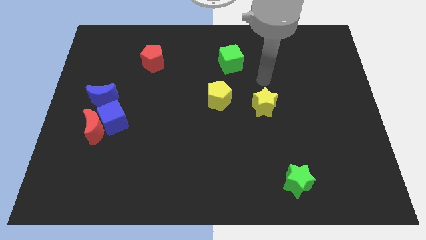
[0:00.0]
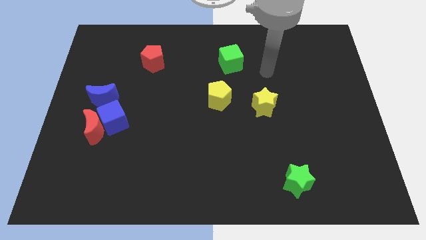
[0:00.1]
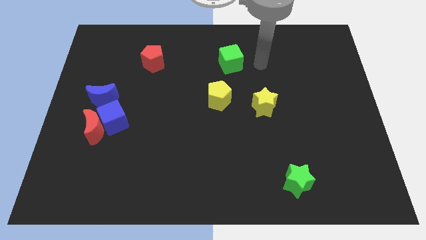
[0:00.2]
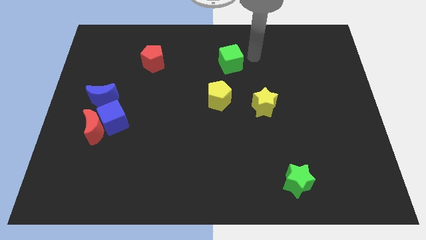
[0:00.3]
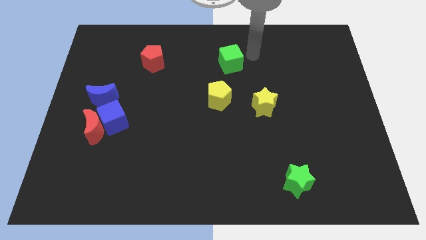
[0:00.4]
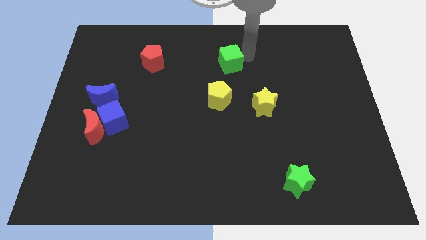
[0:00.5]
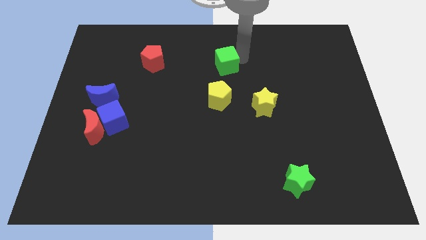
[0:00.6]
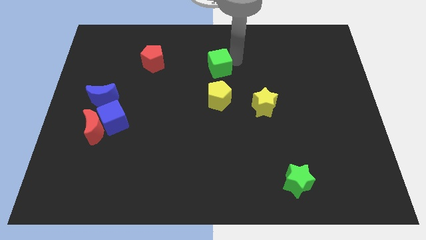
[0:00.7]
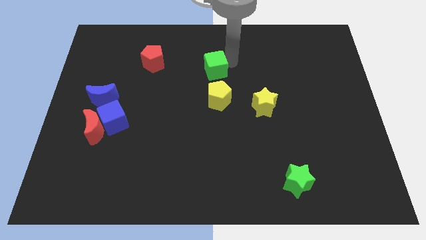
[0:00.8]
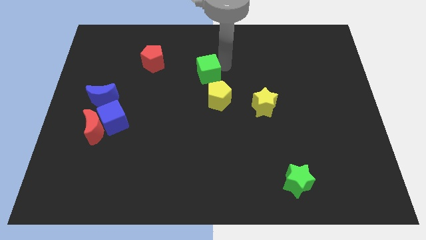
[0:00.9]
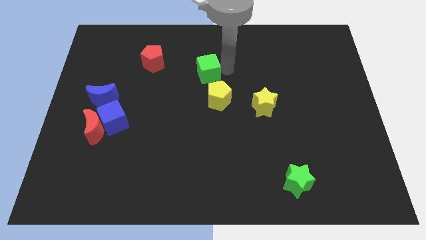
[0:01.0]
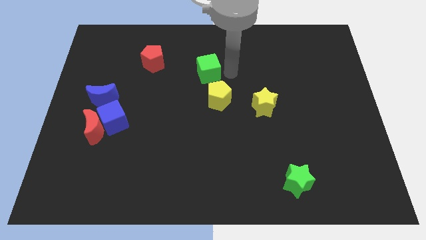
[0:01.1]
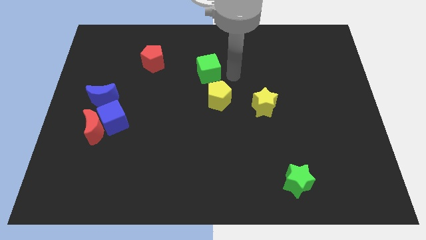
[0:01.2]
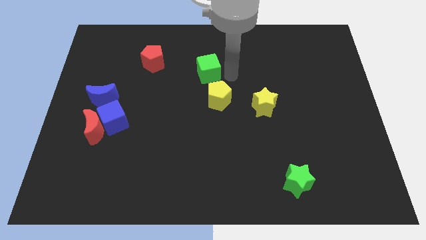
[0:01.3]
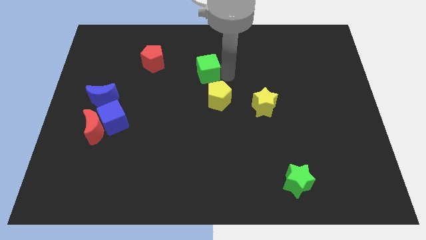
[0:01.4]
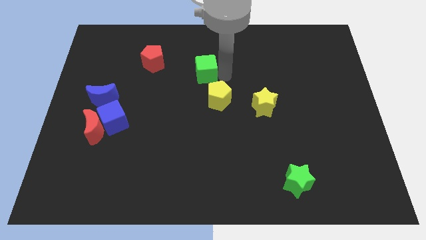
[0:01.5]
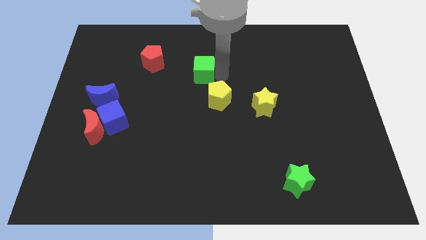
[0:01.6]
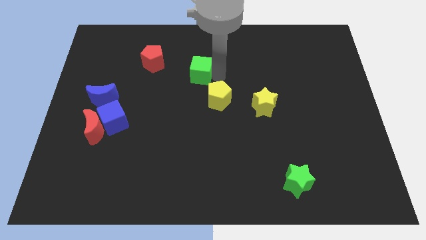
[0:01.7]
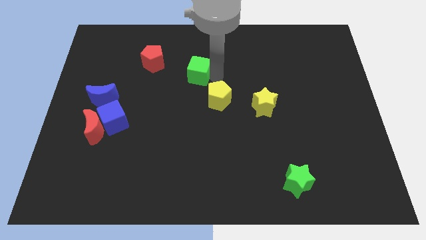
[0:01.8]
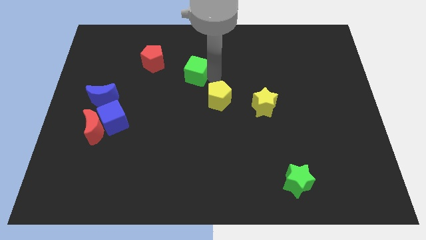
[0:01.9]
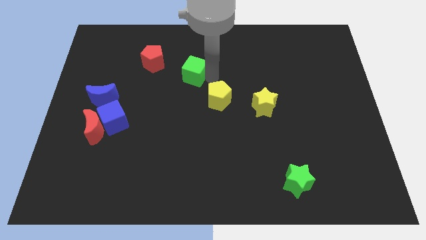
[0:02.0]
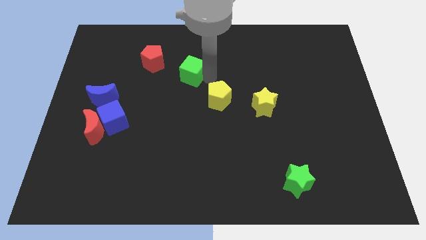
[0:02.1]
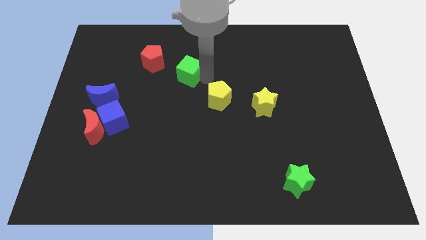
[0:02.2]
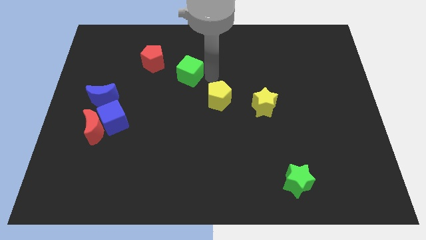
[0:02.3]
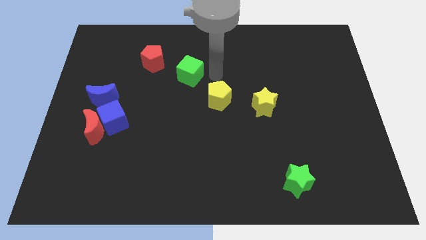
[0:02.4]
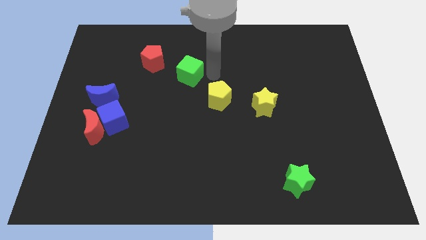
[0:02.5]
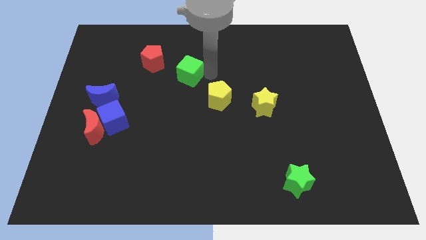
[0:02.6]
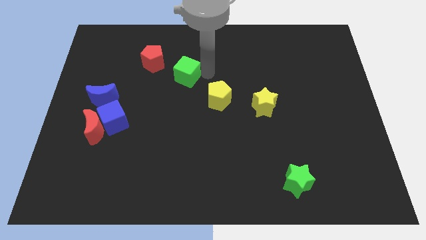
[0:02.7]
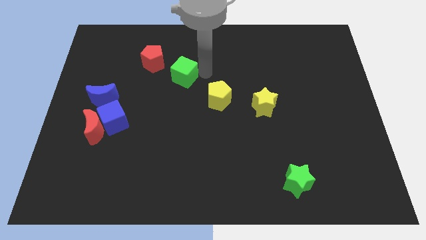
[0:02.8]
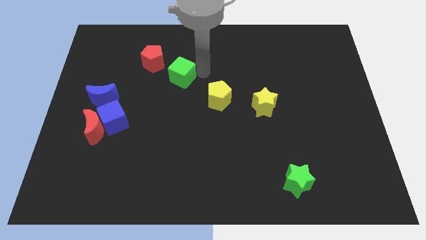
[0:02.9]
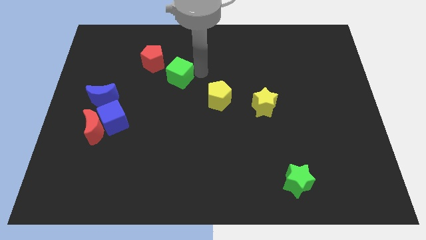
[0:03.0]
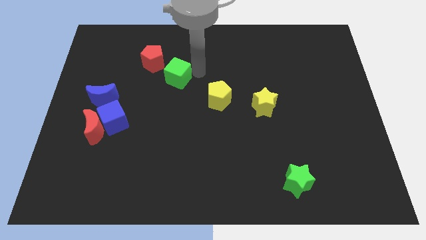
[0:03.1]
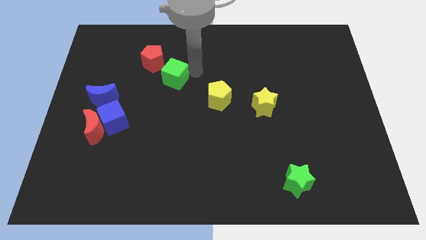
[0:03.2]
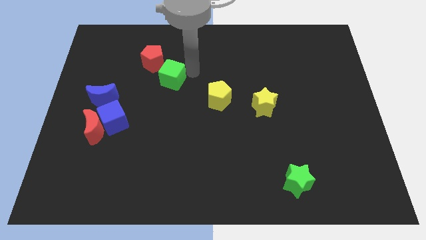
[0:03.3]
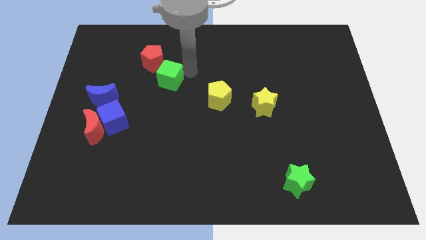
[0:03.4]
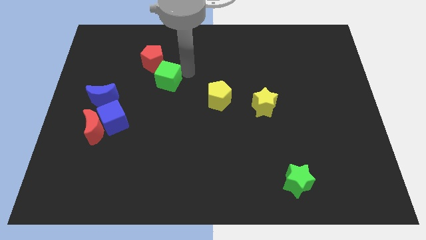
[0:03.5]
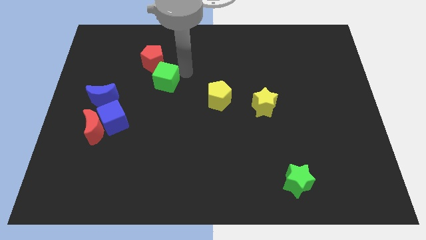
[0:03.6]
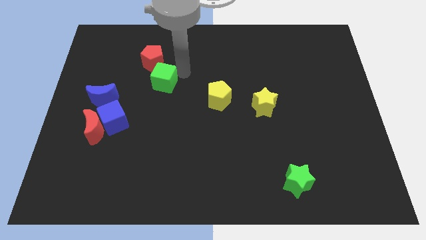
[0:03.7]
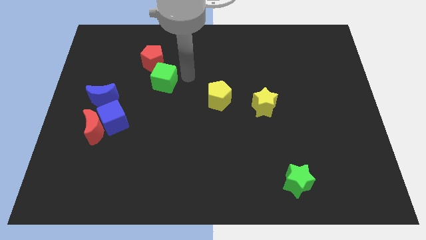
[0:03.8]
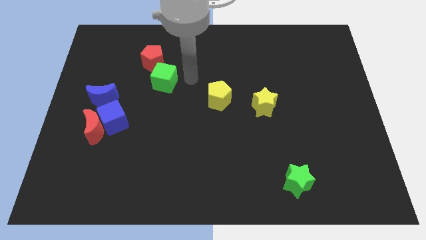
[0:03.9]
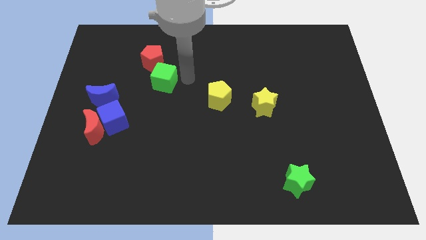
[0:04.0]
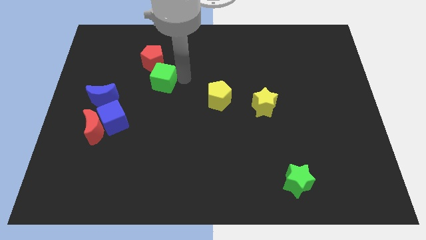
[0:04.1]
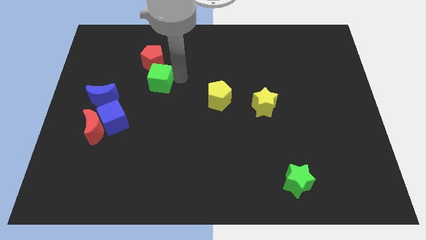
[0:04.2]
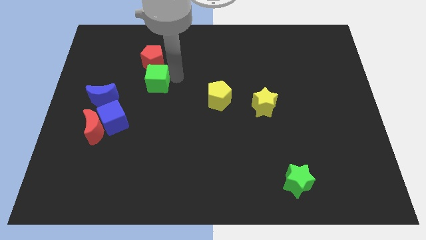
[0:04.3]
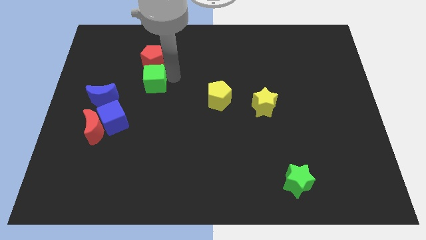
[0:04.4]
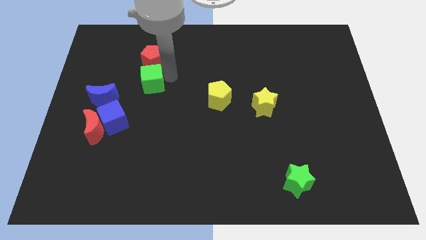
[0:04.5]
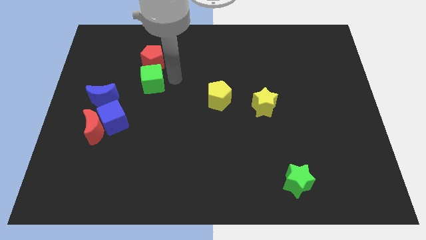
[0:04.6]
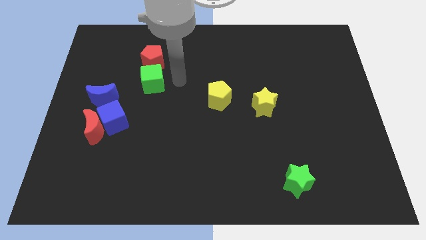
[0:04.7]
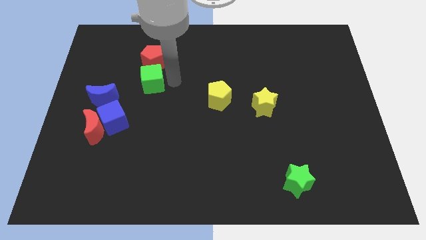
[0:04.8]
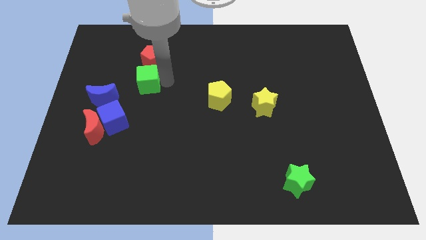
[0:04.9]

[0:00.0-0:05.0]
move the green cube to the top right side of the blue moon

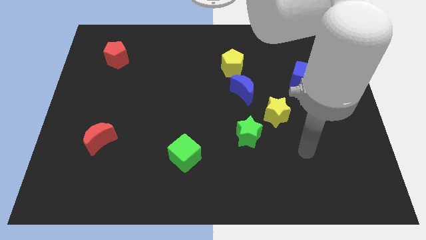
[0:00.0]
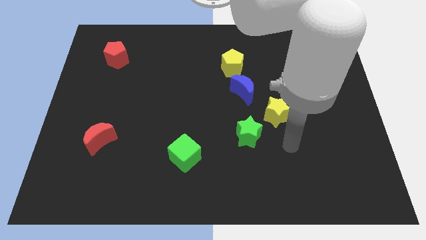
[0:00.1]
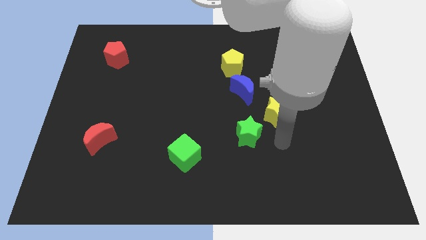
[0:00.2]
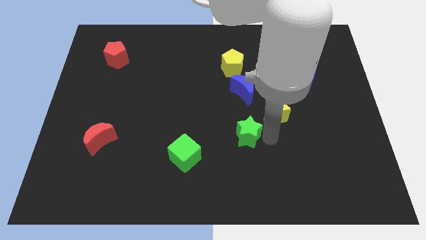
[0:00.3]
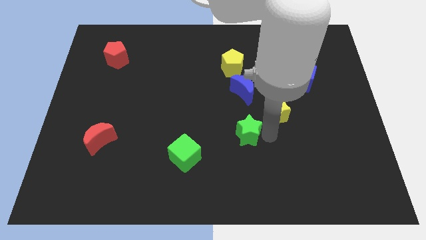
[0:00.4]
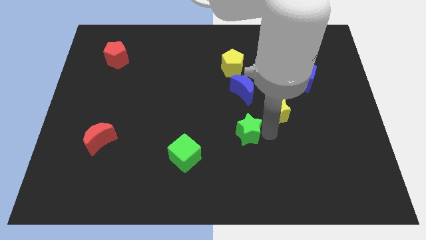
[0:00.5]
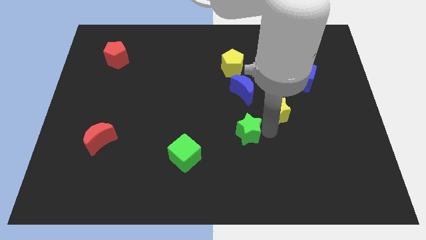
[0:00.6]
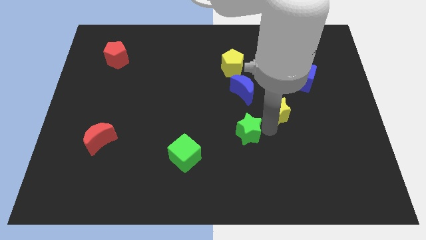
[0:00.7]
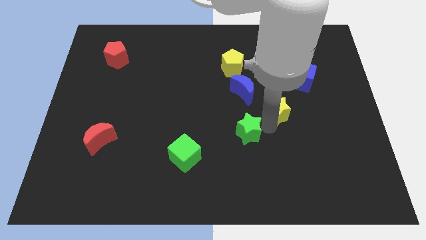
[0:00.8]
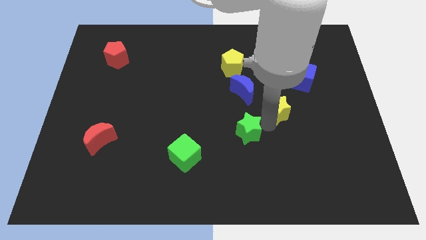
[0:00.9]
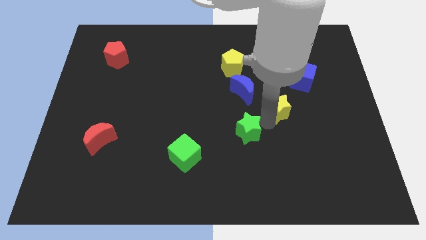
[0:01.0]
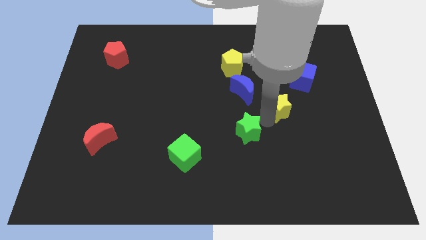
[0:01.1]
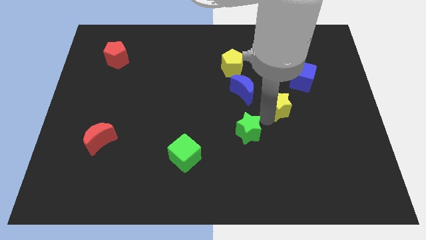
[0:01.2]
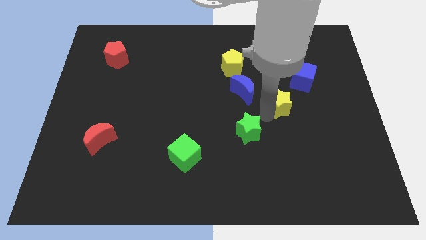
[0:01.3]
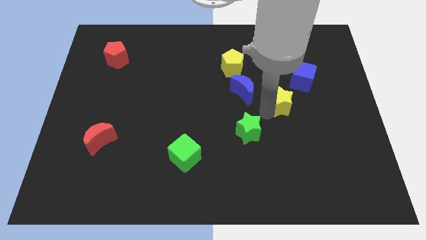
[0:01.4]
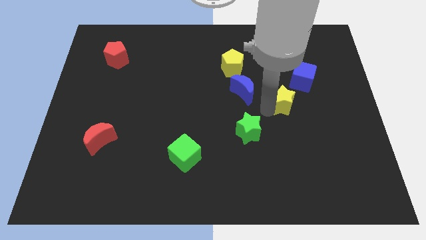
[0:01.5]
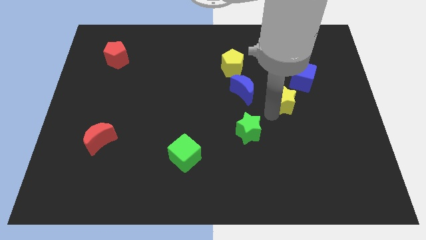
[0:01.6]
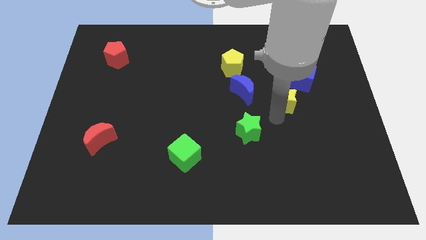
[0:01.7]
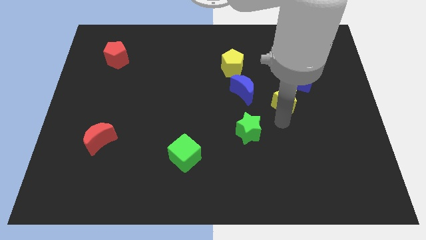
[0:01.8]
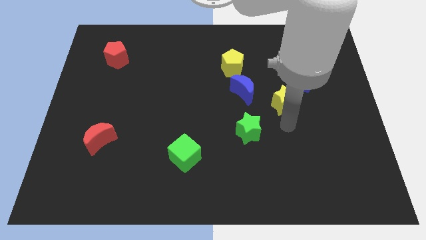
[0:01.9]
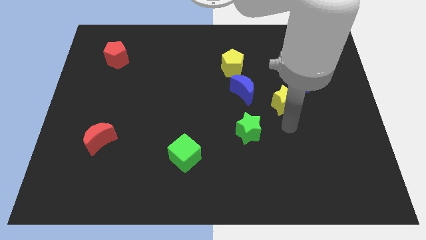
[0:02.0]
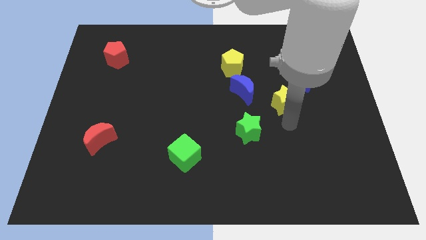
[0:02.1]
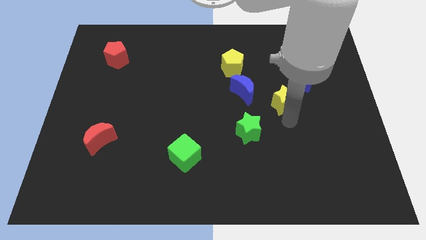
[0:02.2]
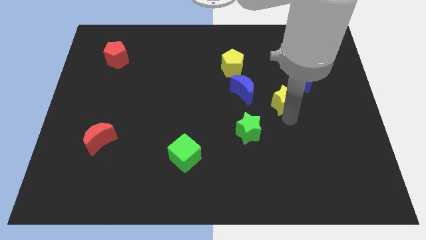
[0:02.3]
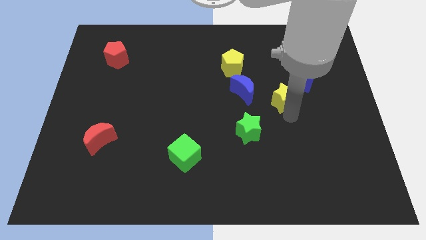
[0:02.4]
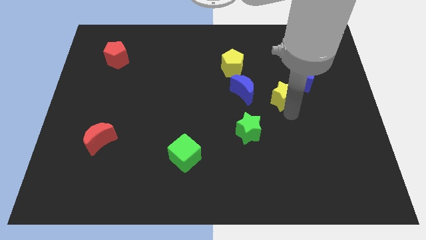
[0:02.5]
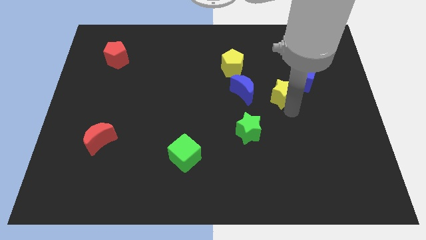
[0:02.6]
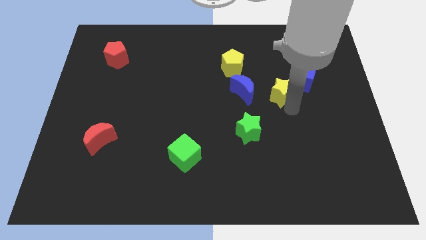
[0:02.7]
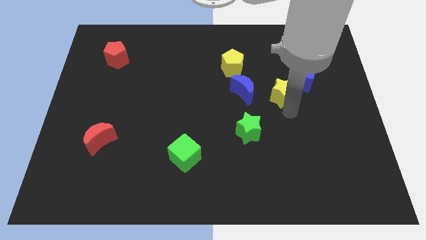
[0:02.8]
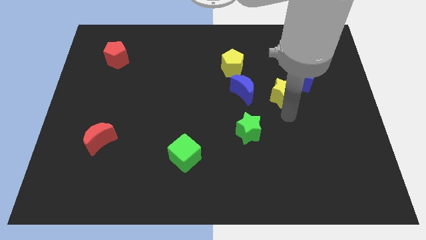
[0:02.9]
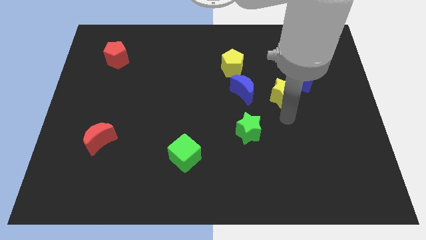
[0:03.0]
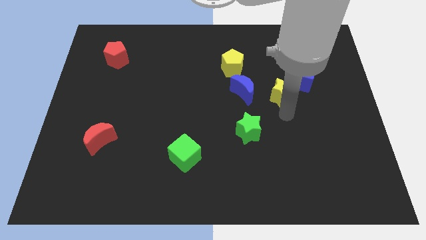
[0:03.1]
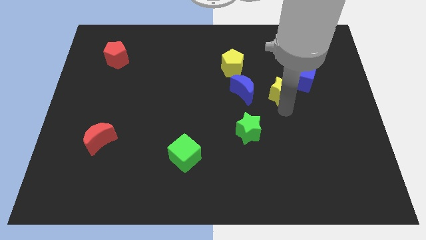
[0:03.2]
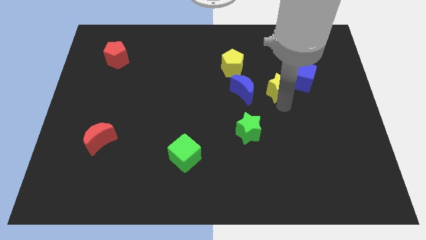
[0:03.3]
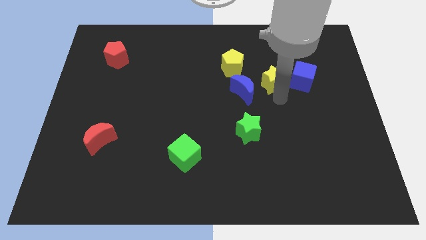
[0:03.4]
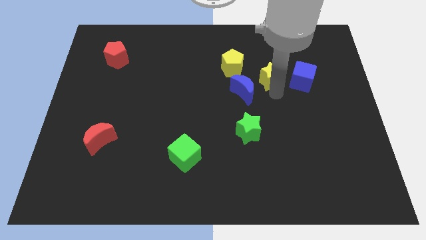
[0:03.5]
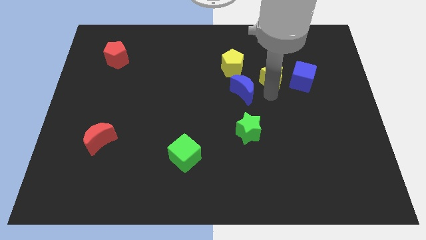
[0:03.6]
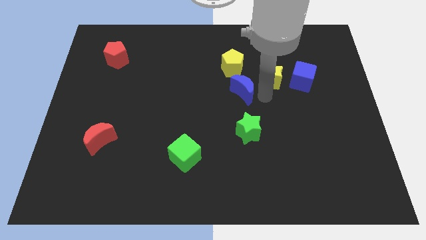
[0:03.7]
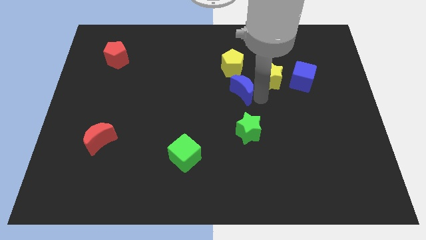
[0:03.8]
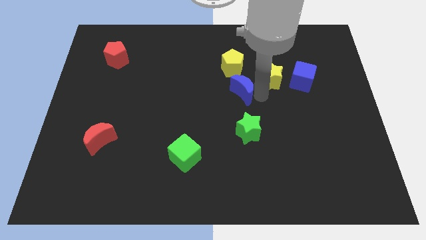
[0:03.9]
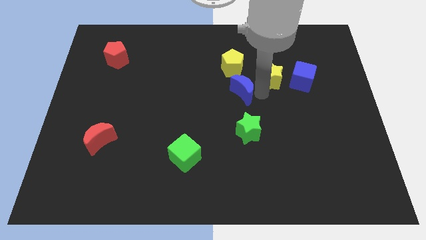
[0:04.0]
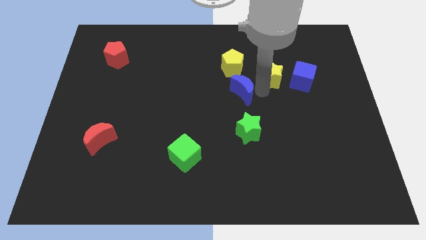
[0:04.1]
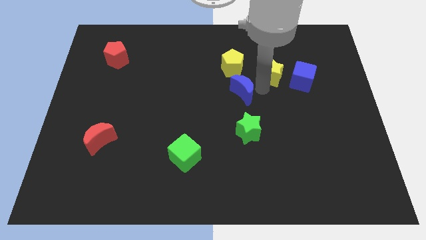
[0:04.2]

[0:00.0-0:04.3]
move the yellow star to the top left side of the blue cube
